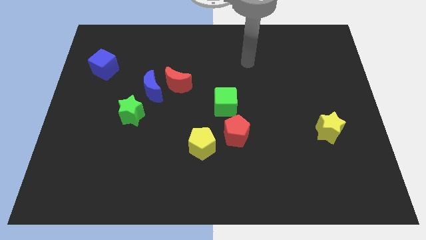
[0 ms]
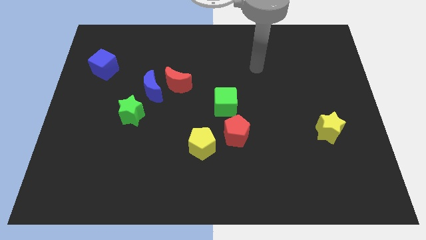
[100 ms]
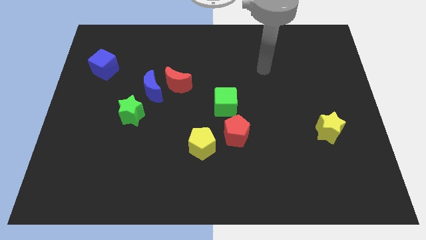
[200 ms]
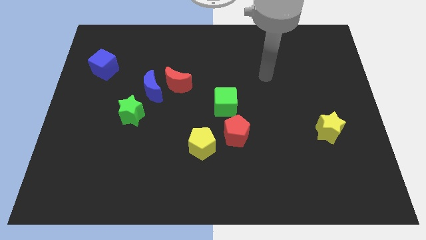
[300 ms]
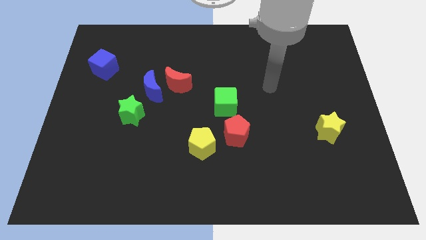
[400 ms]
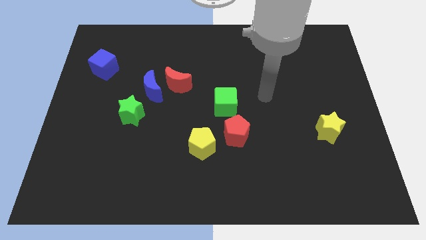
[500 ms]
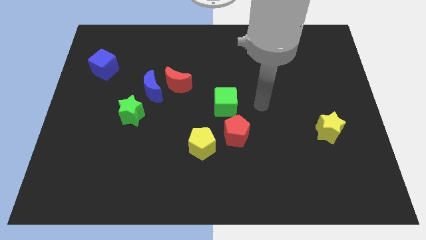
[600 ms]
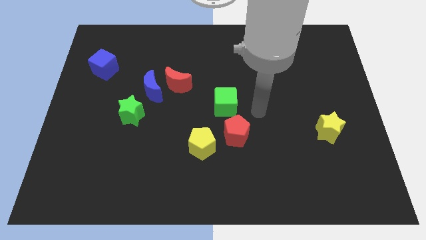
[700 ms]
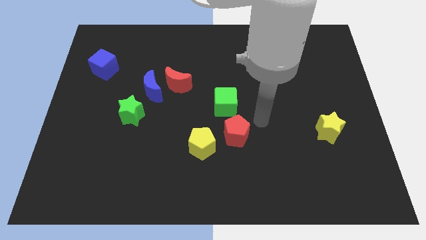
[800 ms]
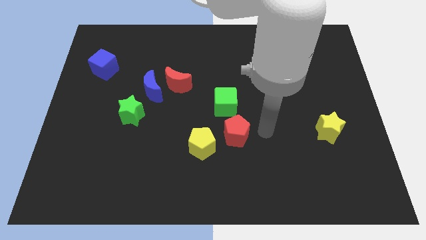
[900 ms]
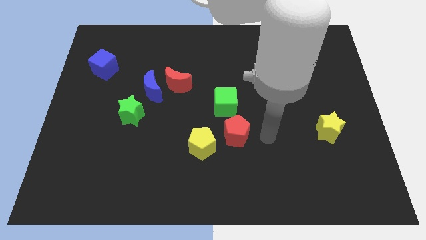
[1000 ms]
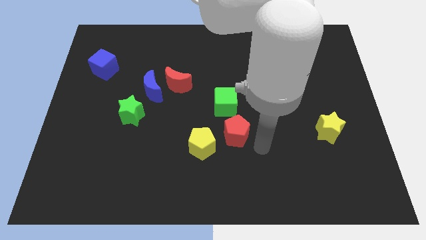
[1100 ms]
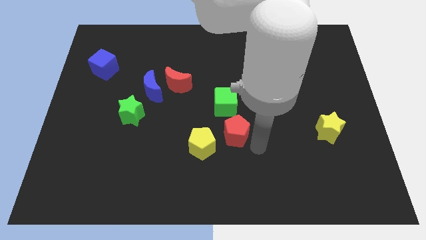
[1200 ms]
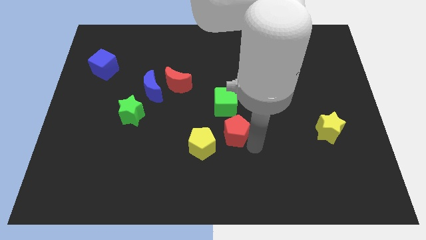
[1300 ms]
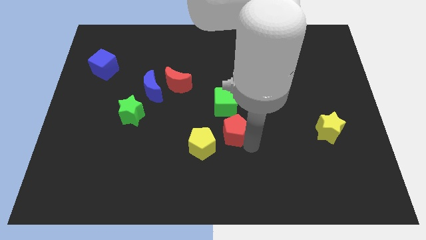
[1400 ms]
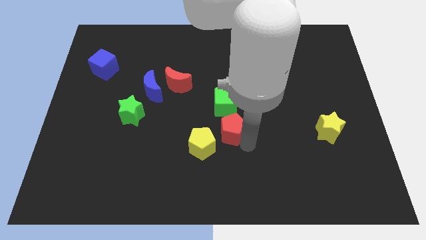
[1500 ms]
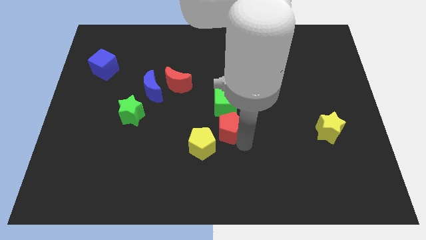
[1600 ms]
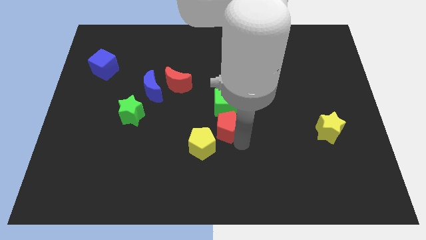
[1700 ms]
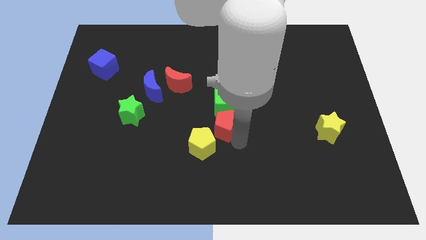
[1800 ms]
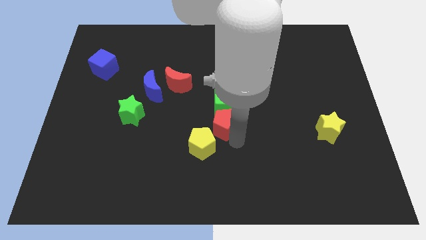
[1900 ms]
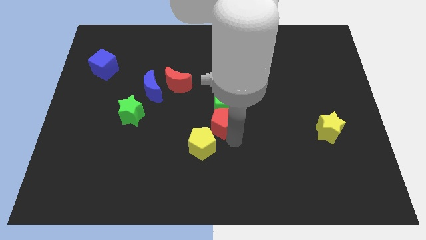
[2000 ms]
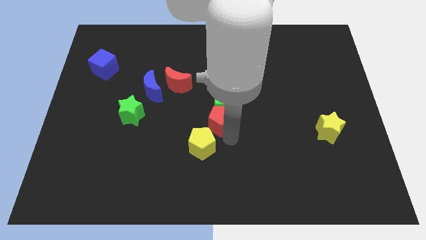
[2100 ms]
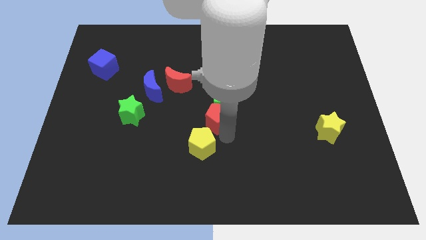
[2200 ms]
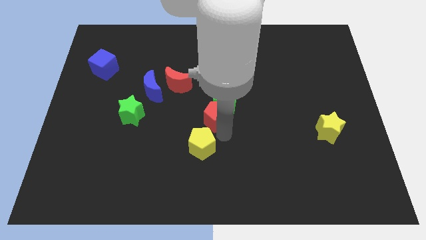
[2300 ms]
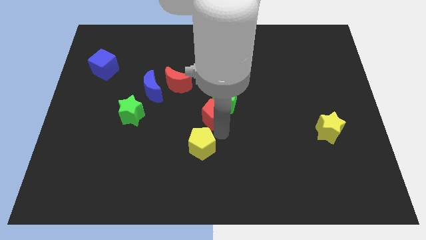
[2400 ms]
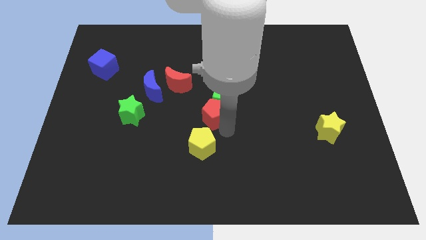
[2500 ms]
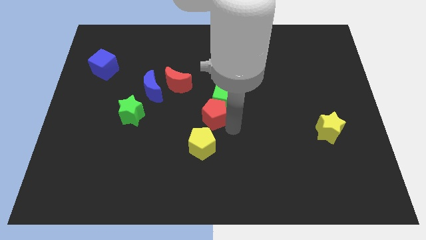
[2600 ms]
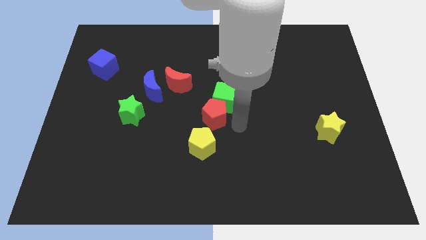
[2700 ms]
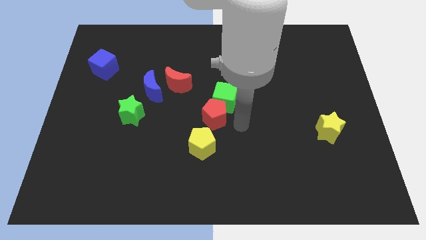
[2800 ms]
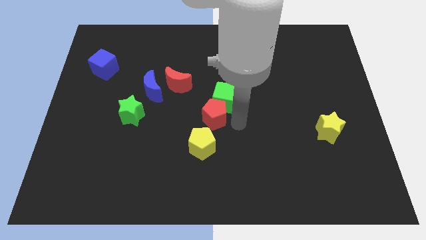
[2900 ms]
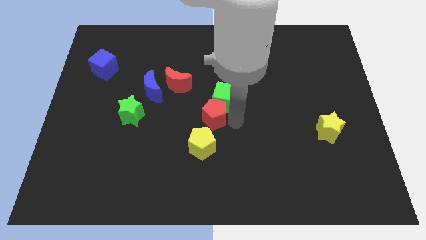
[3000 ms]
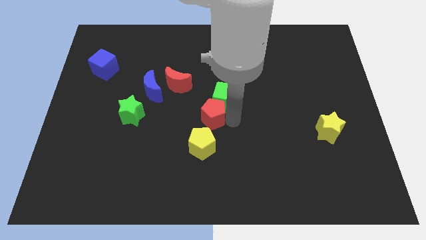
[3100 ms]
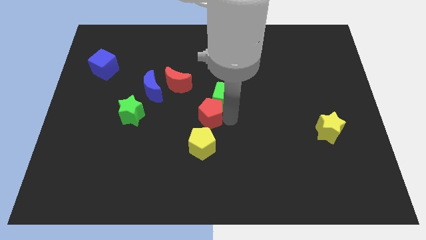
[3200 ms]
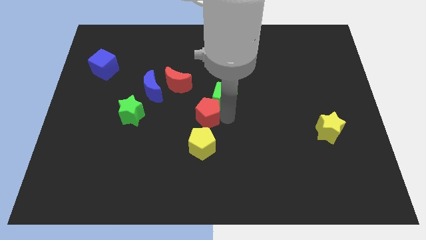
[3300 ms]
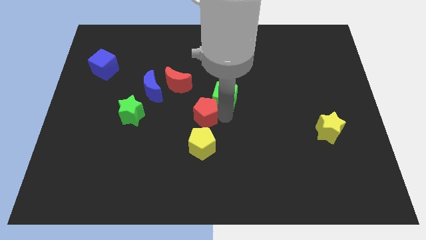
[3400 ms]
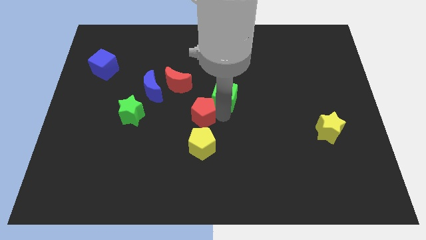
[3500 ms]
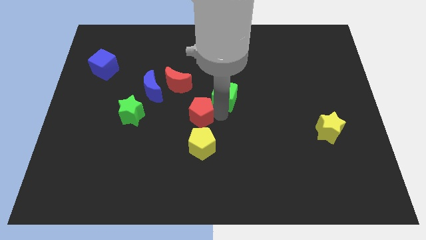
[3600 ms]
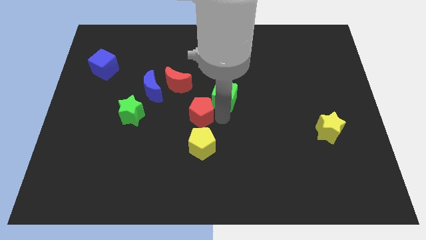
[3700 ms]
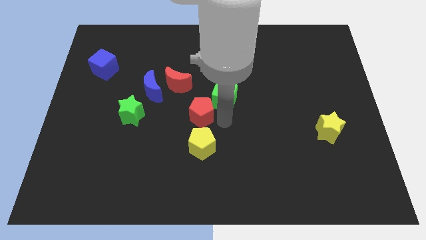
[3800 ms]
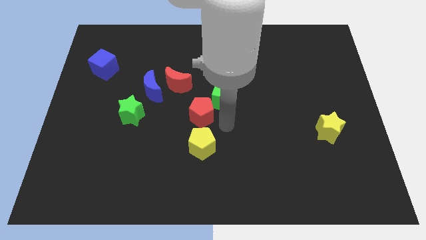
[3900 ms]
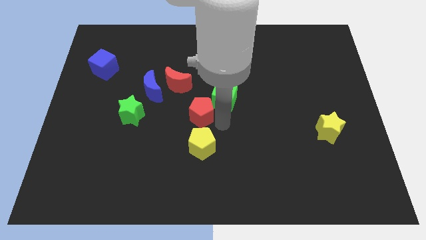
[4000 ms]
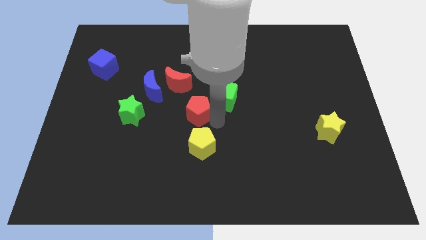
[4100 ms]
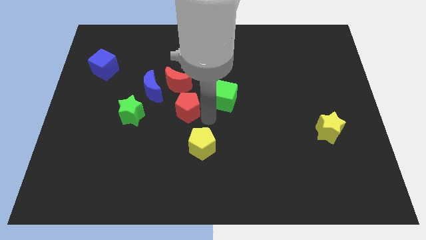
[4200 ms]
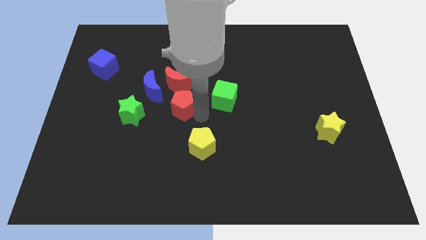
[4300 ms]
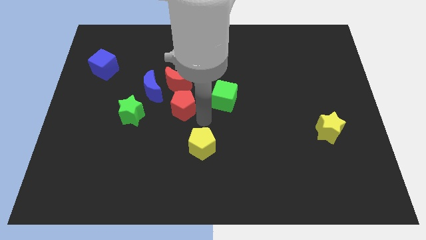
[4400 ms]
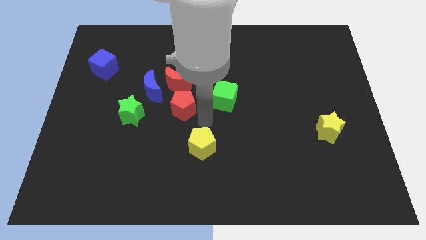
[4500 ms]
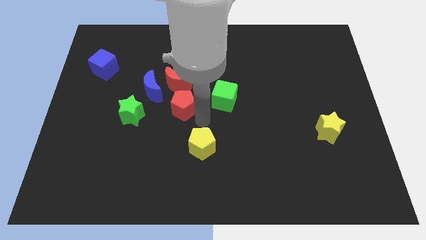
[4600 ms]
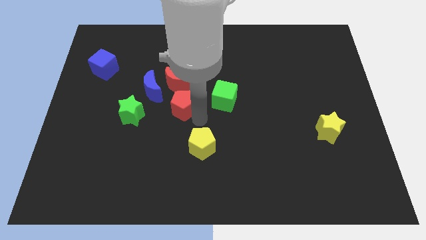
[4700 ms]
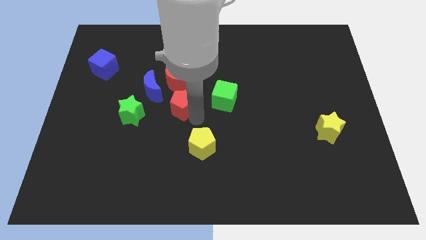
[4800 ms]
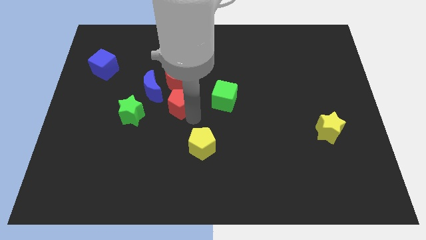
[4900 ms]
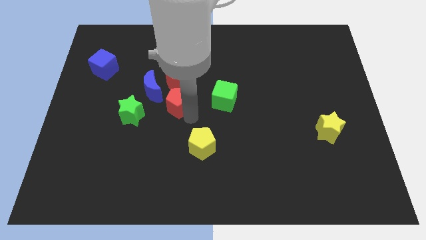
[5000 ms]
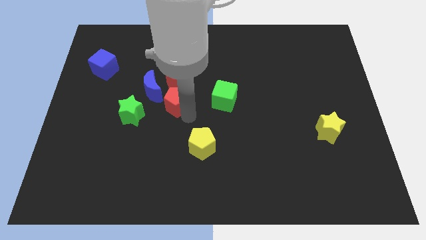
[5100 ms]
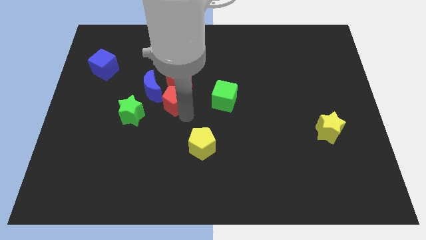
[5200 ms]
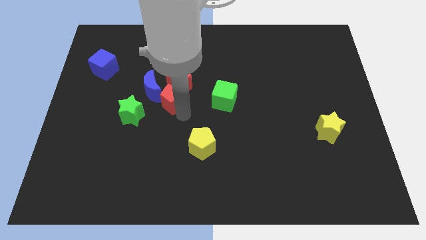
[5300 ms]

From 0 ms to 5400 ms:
move the red pentagon to the blue moon

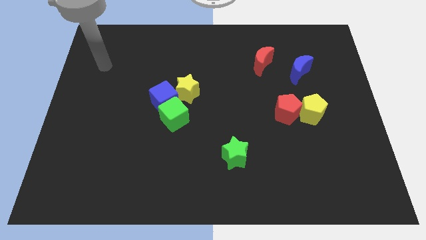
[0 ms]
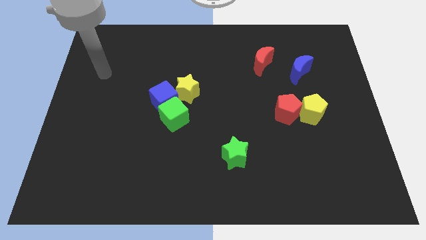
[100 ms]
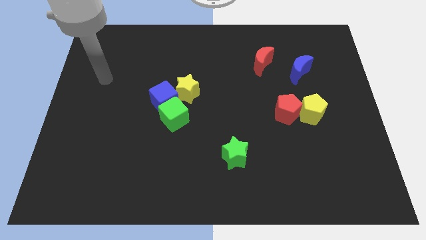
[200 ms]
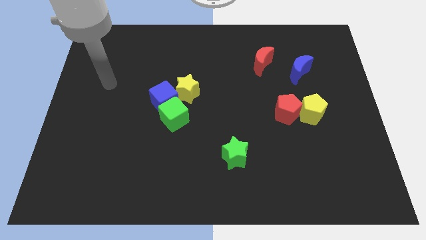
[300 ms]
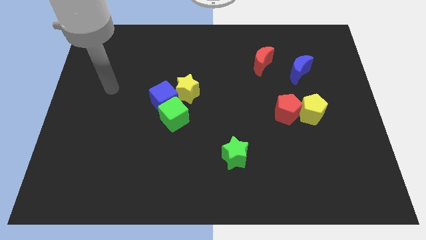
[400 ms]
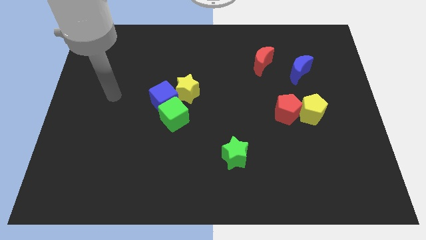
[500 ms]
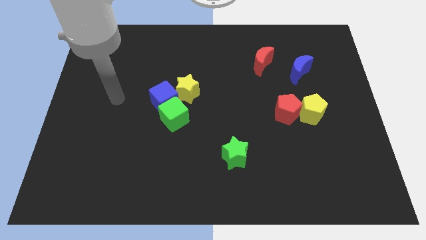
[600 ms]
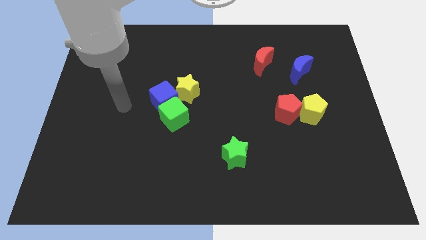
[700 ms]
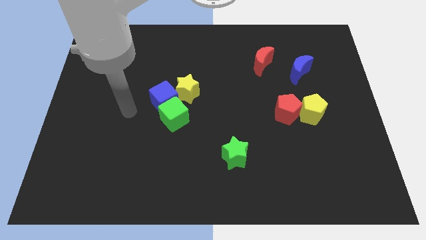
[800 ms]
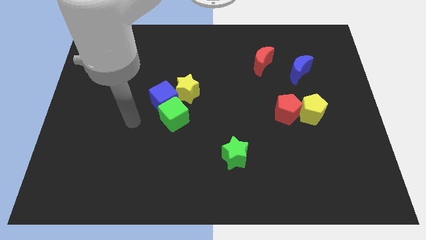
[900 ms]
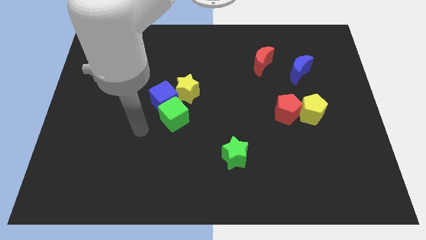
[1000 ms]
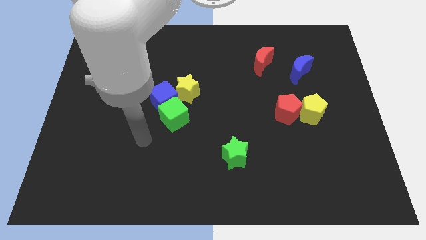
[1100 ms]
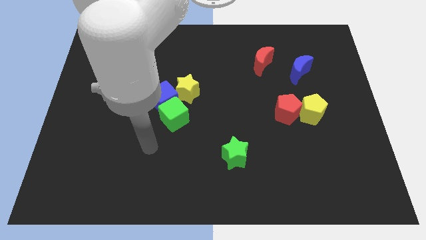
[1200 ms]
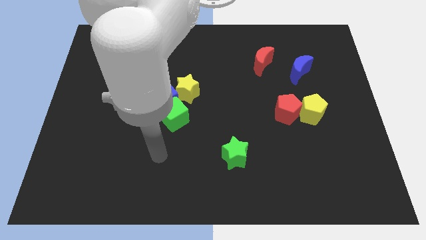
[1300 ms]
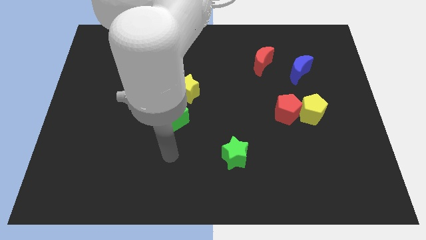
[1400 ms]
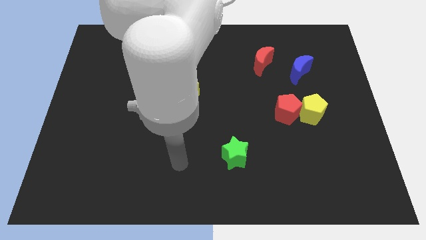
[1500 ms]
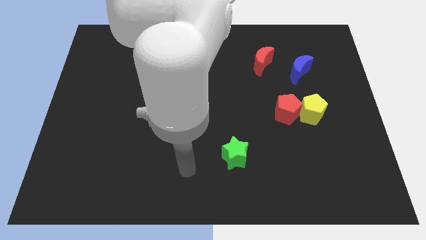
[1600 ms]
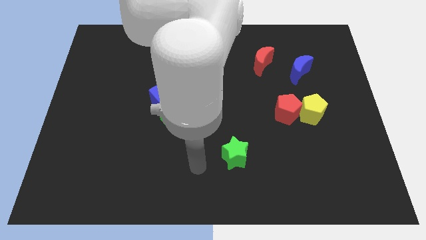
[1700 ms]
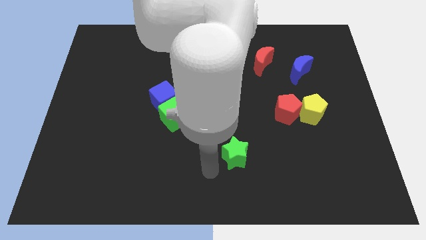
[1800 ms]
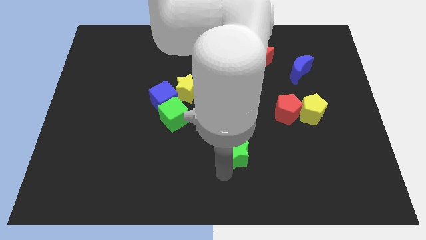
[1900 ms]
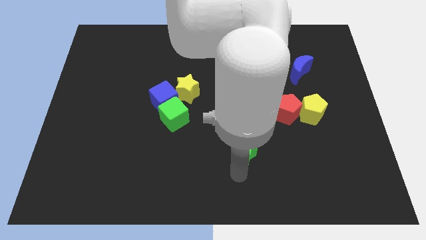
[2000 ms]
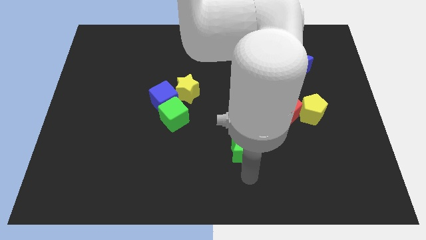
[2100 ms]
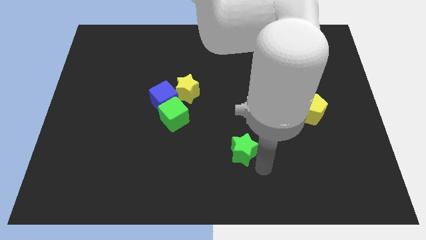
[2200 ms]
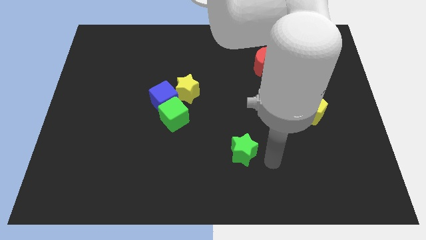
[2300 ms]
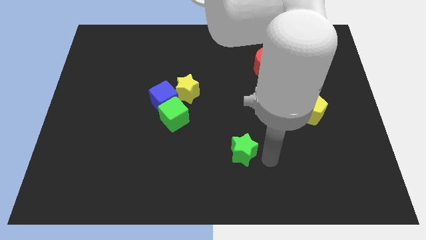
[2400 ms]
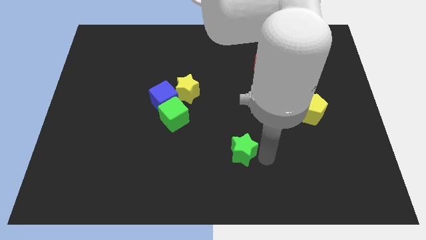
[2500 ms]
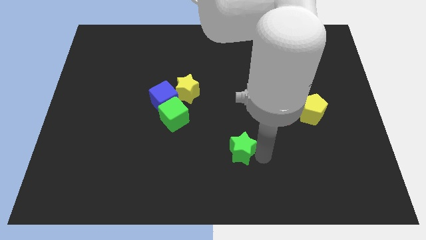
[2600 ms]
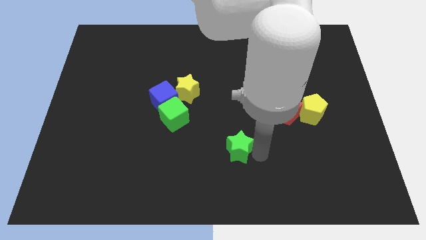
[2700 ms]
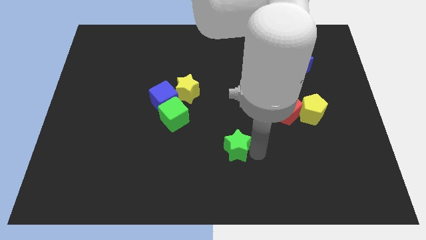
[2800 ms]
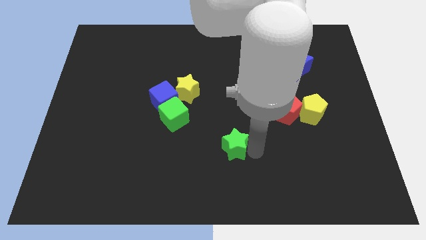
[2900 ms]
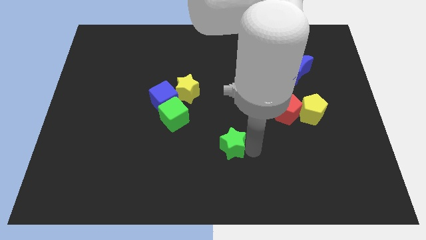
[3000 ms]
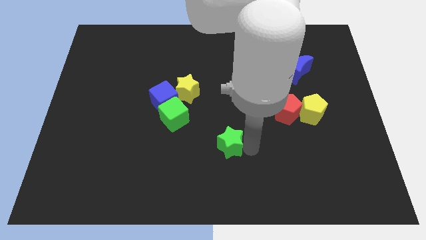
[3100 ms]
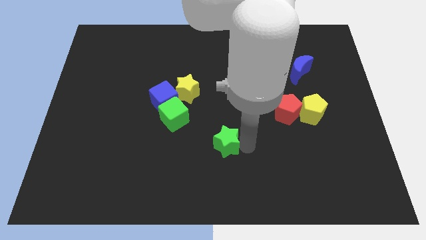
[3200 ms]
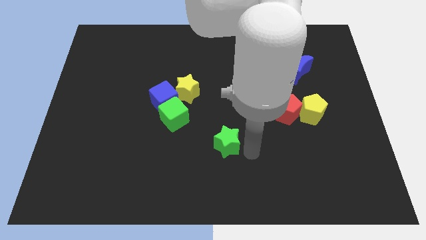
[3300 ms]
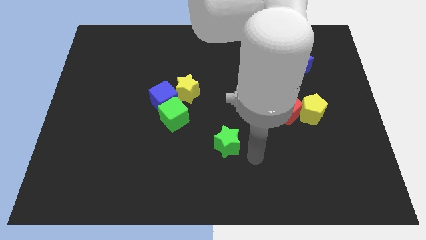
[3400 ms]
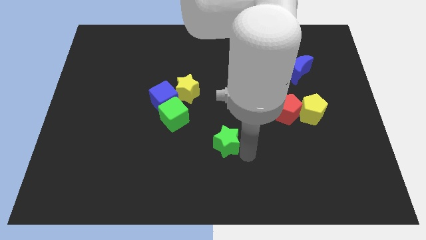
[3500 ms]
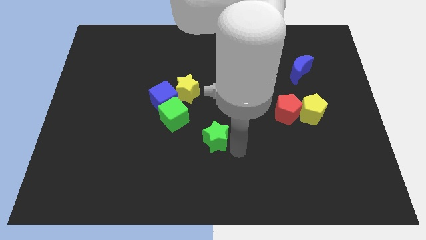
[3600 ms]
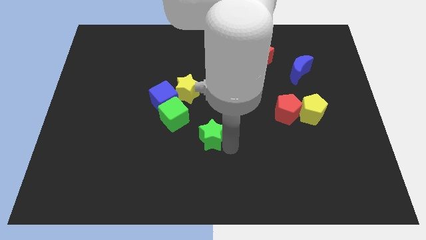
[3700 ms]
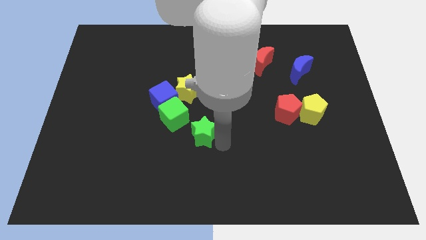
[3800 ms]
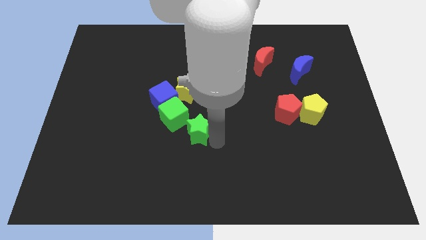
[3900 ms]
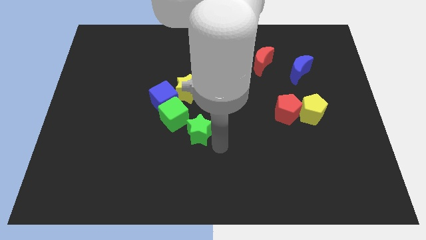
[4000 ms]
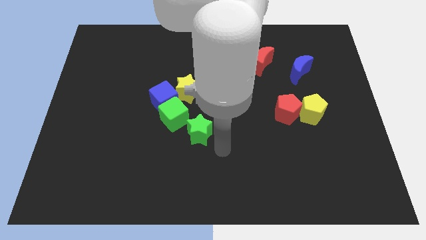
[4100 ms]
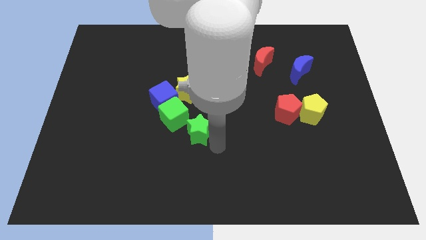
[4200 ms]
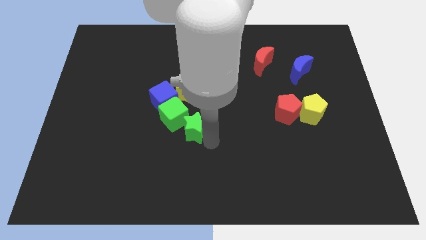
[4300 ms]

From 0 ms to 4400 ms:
move the green star towards the green cube
